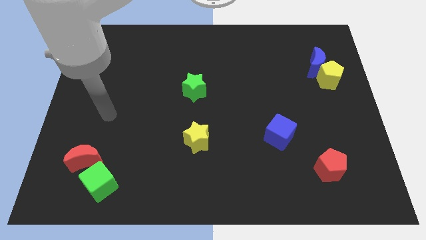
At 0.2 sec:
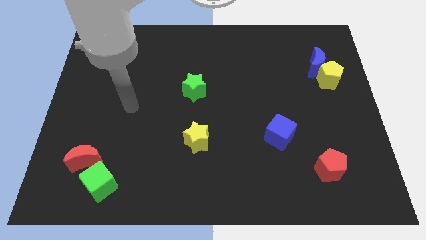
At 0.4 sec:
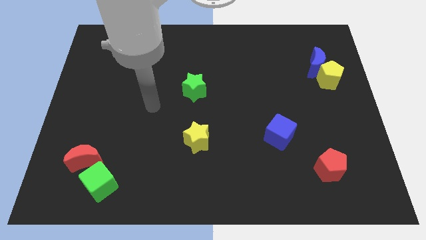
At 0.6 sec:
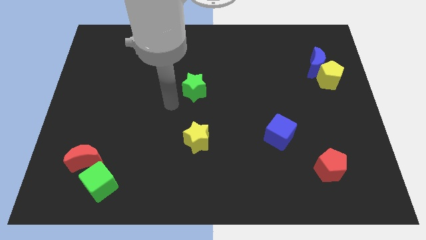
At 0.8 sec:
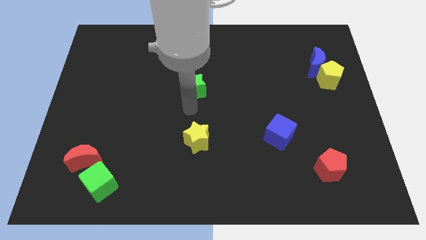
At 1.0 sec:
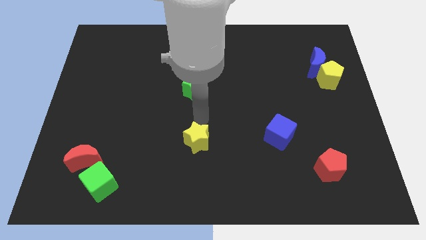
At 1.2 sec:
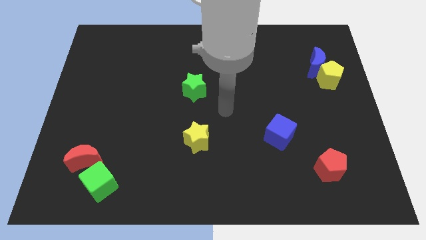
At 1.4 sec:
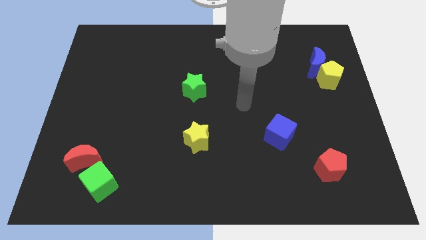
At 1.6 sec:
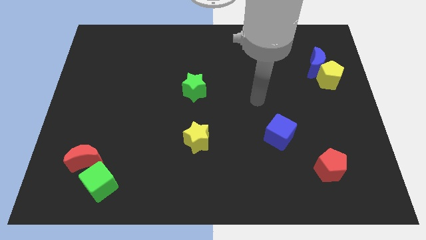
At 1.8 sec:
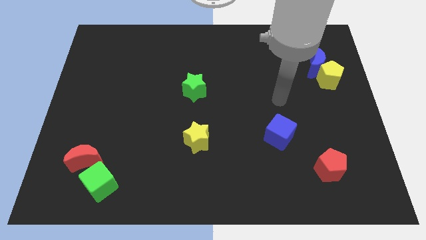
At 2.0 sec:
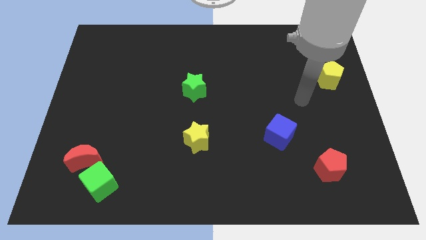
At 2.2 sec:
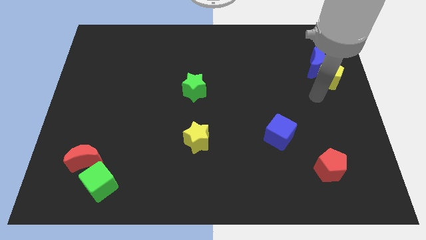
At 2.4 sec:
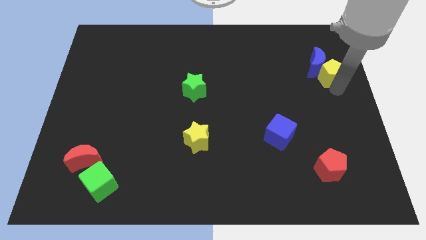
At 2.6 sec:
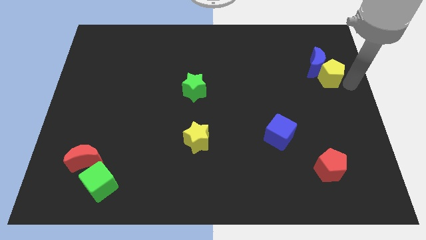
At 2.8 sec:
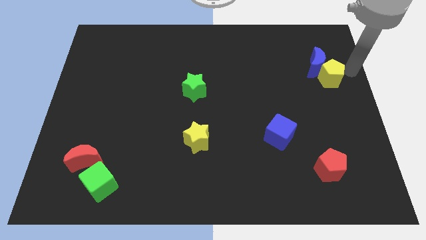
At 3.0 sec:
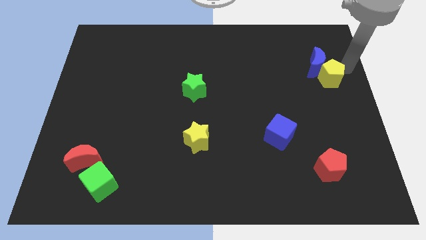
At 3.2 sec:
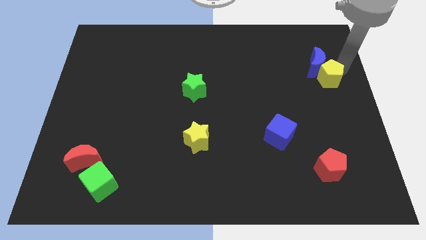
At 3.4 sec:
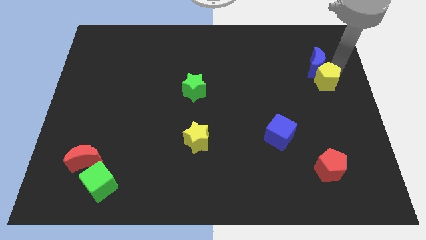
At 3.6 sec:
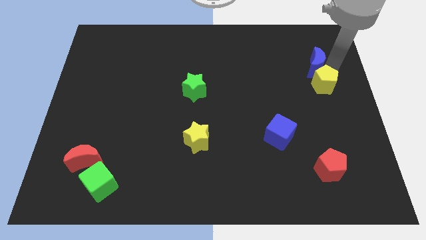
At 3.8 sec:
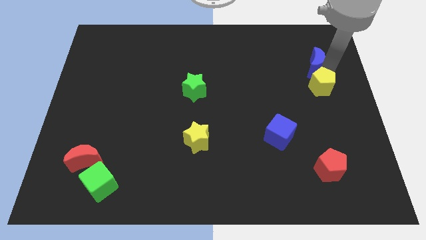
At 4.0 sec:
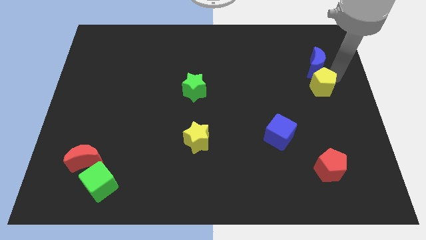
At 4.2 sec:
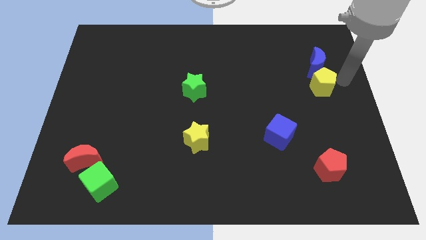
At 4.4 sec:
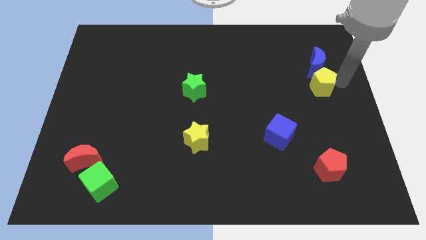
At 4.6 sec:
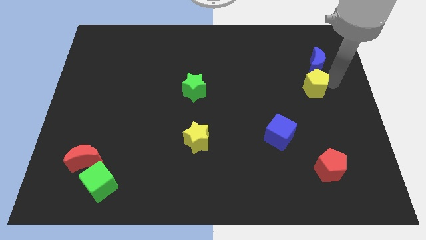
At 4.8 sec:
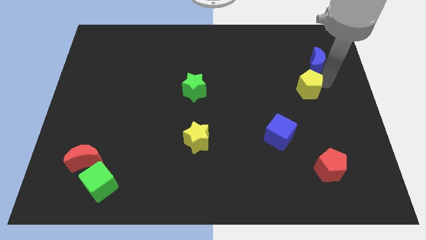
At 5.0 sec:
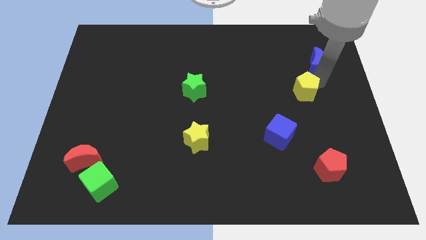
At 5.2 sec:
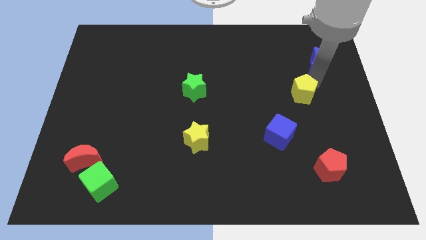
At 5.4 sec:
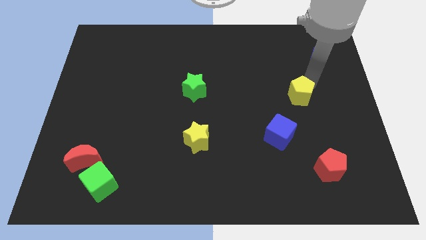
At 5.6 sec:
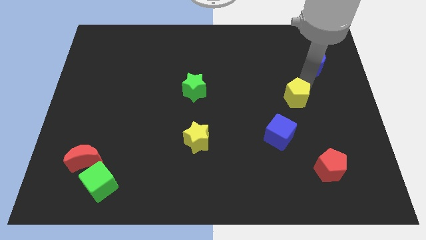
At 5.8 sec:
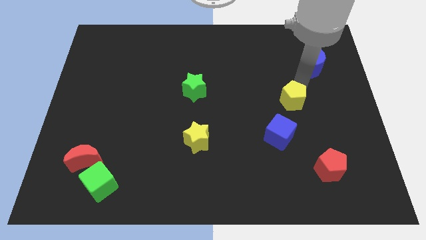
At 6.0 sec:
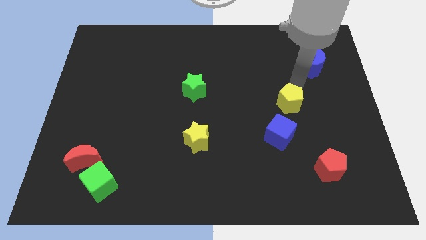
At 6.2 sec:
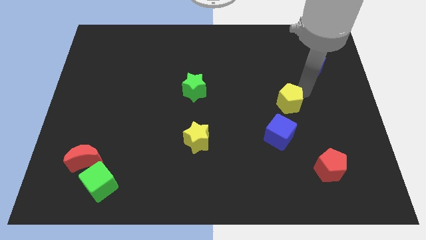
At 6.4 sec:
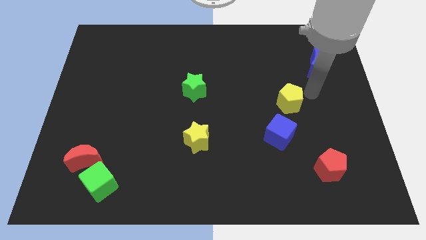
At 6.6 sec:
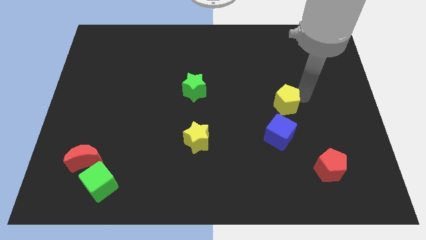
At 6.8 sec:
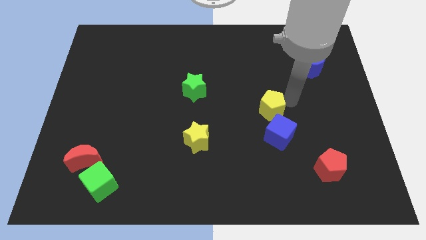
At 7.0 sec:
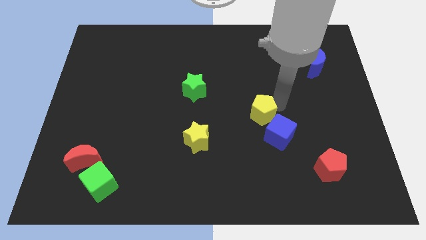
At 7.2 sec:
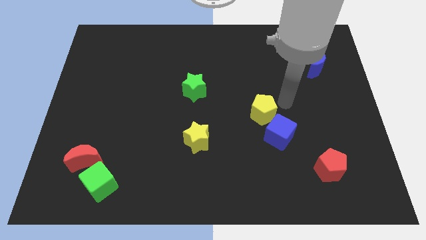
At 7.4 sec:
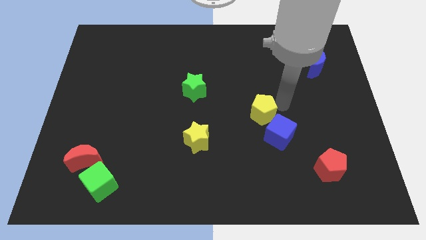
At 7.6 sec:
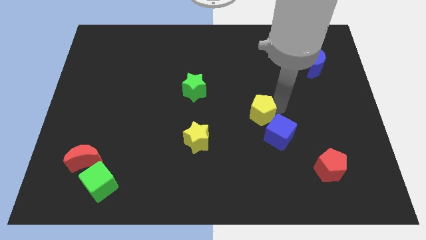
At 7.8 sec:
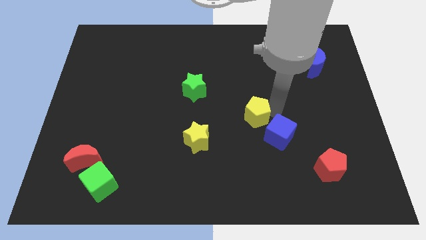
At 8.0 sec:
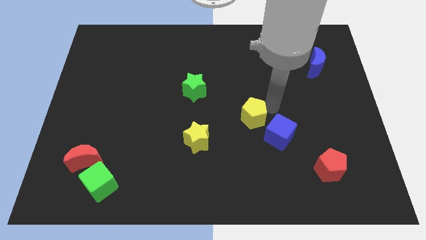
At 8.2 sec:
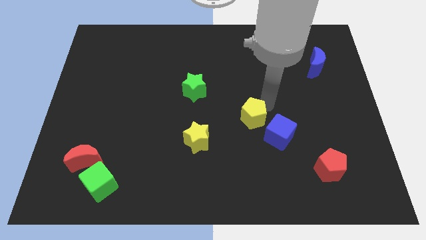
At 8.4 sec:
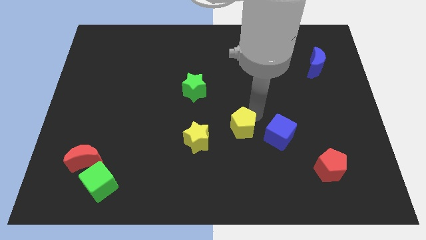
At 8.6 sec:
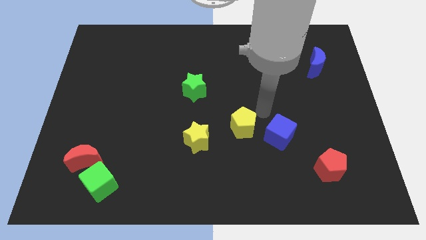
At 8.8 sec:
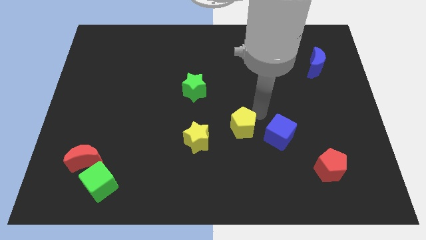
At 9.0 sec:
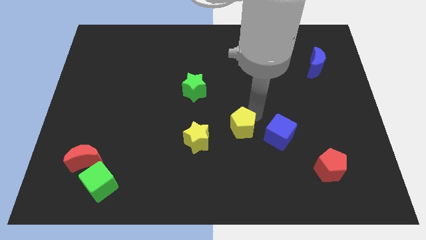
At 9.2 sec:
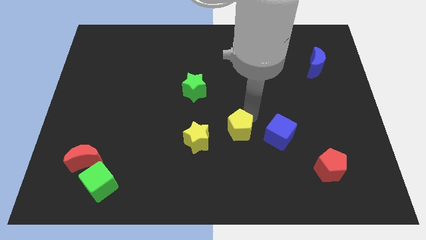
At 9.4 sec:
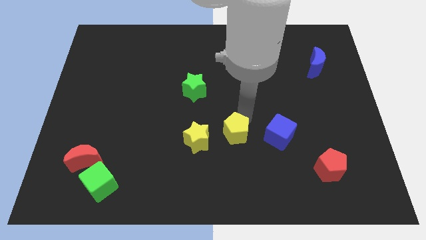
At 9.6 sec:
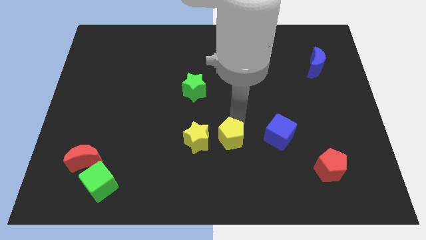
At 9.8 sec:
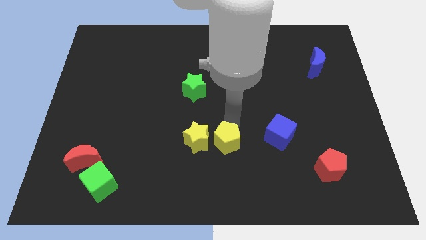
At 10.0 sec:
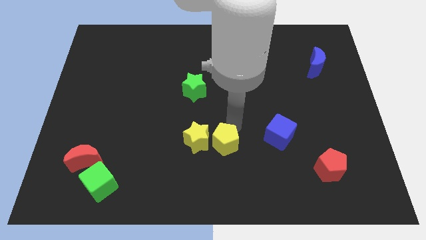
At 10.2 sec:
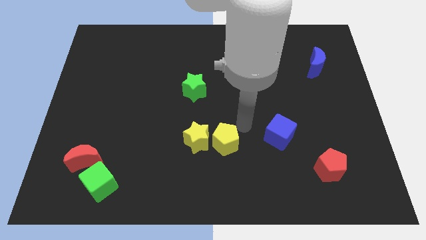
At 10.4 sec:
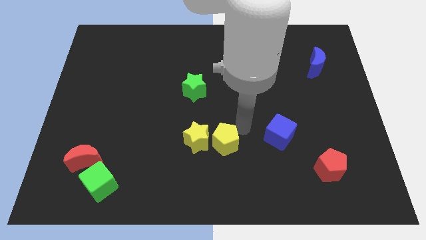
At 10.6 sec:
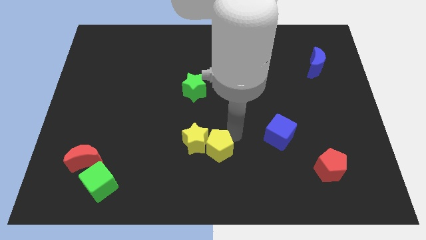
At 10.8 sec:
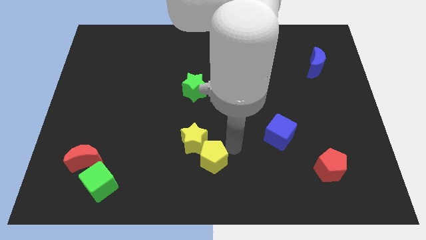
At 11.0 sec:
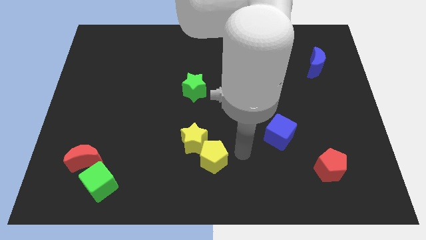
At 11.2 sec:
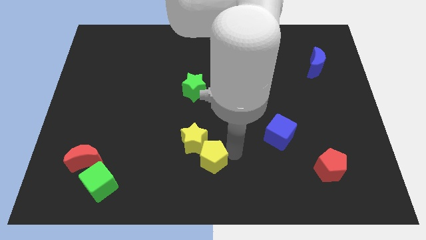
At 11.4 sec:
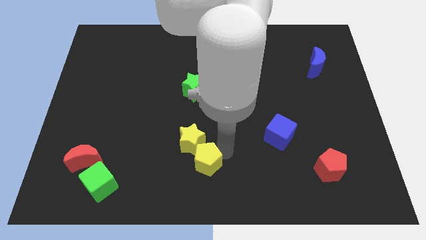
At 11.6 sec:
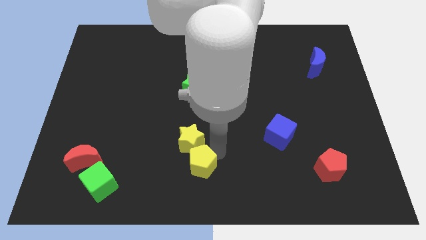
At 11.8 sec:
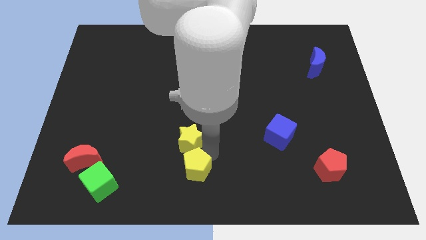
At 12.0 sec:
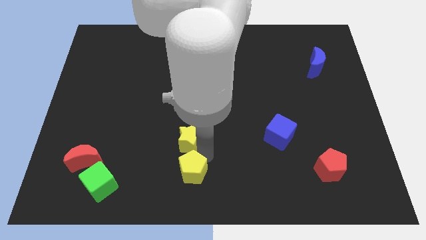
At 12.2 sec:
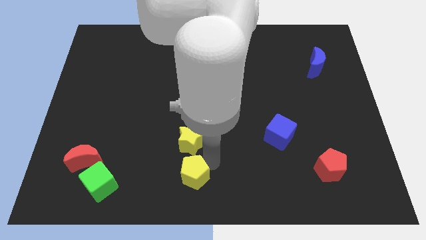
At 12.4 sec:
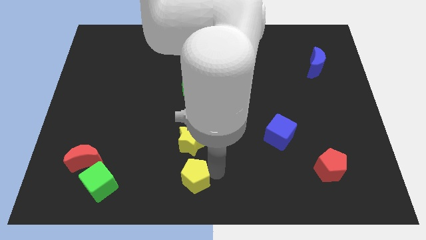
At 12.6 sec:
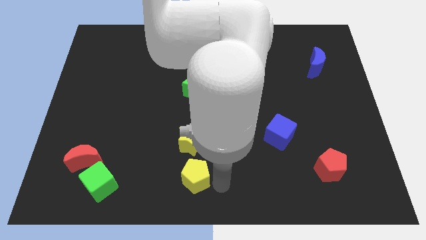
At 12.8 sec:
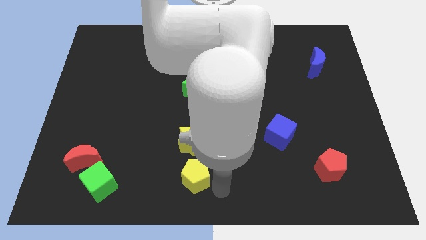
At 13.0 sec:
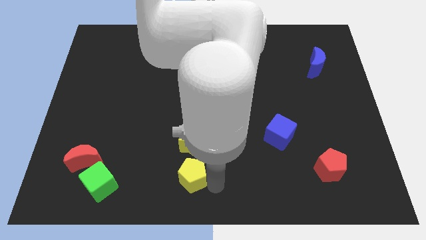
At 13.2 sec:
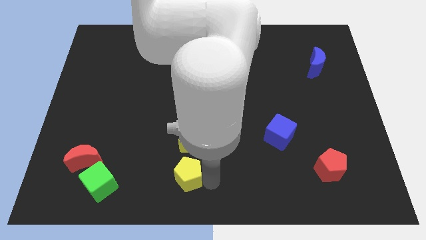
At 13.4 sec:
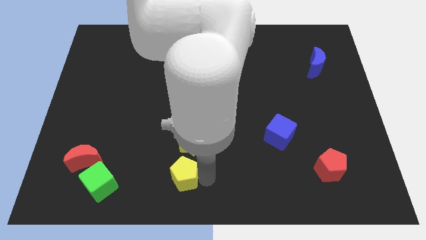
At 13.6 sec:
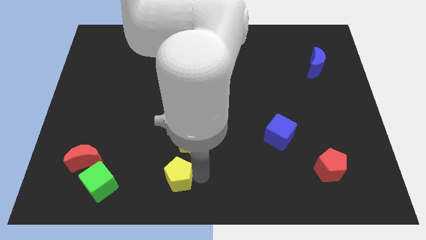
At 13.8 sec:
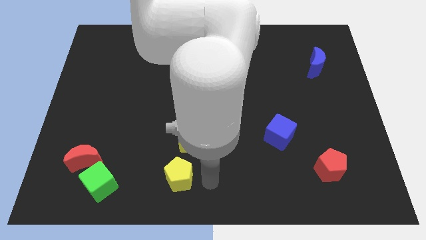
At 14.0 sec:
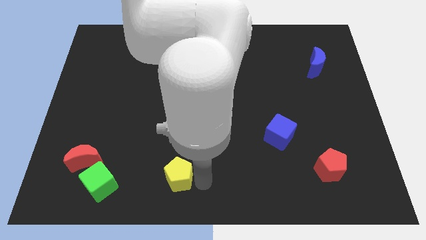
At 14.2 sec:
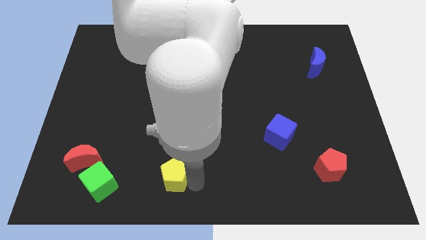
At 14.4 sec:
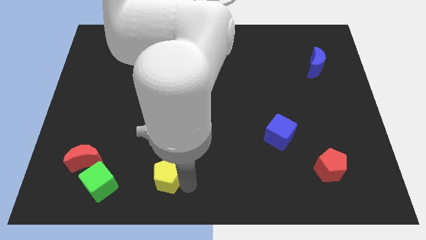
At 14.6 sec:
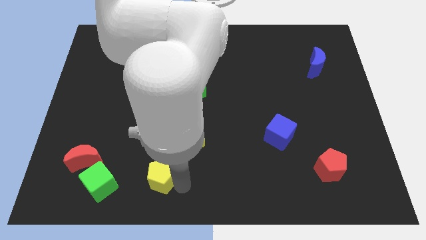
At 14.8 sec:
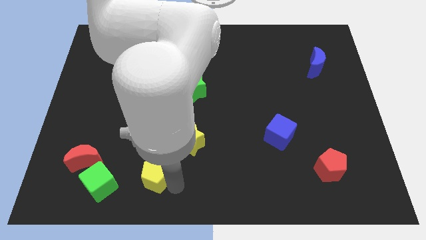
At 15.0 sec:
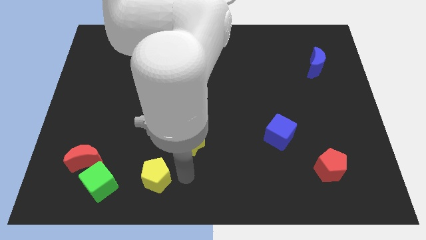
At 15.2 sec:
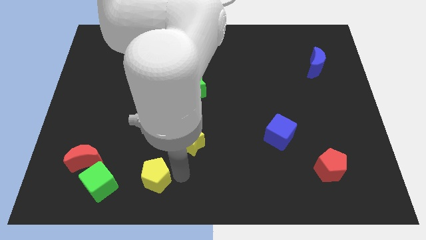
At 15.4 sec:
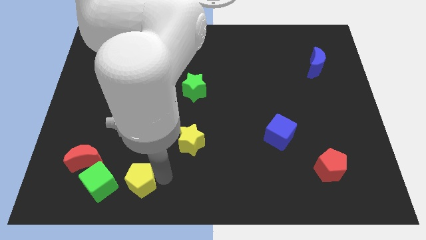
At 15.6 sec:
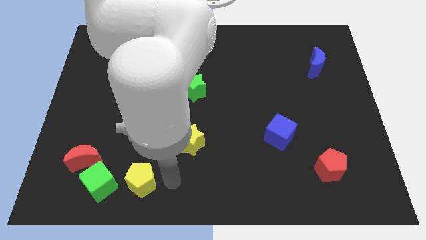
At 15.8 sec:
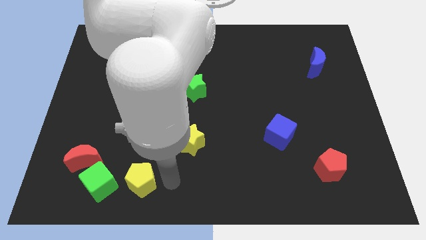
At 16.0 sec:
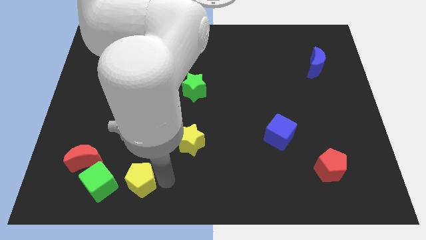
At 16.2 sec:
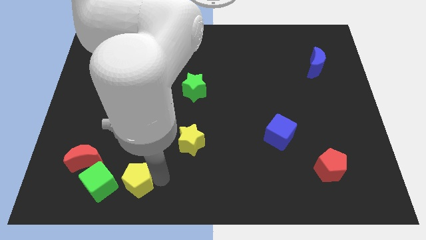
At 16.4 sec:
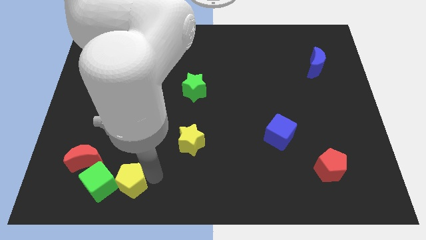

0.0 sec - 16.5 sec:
put the yellow pentagon towards the green cube
